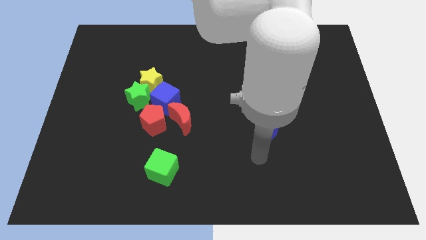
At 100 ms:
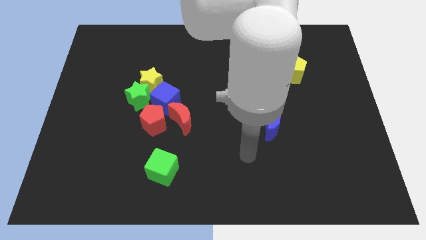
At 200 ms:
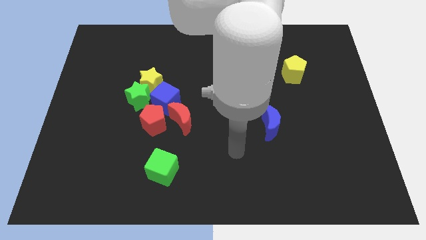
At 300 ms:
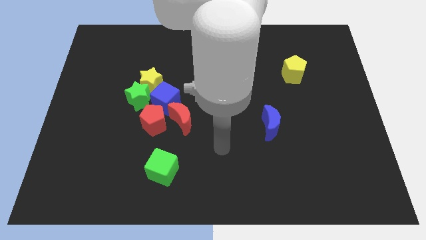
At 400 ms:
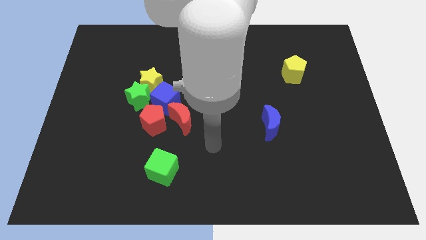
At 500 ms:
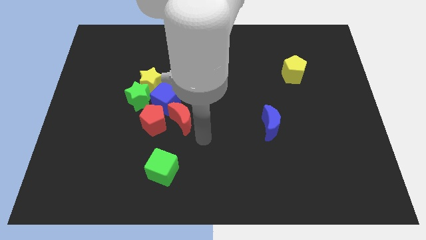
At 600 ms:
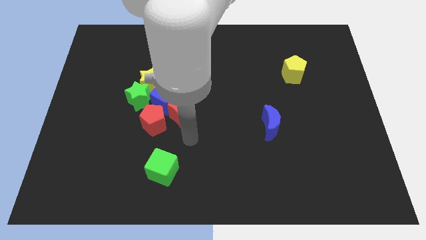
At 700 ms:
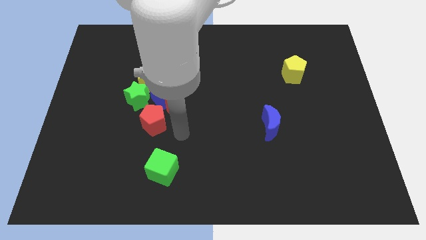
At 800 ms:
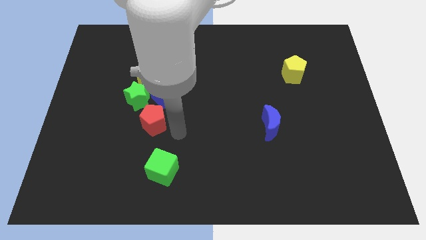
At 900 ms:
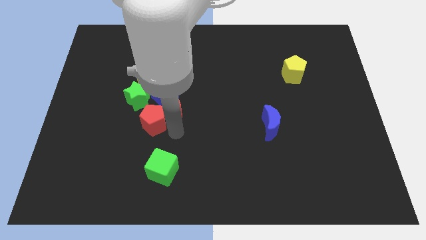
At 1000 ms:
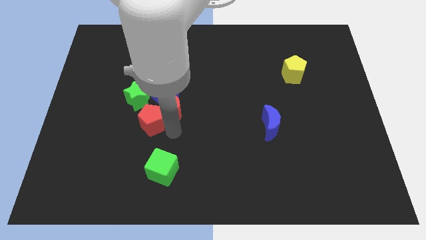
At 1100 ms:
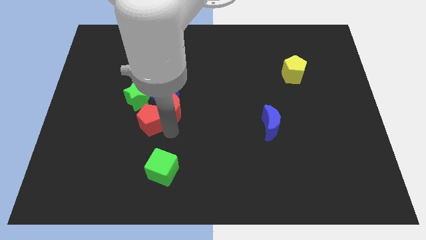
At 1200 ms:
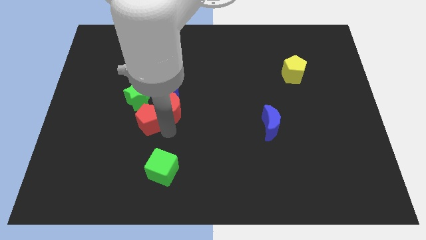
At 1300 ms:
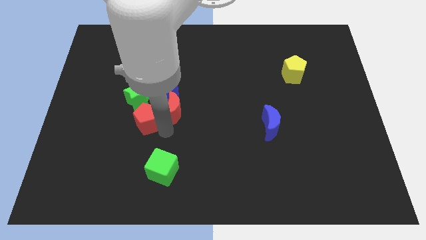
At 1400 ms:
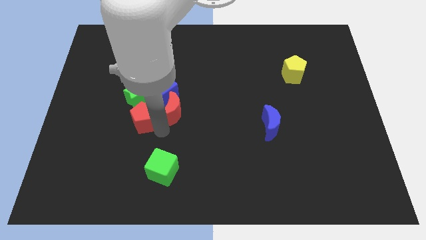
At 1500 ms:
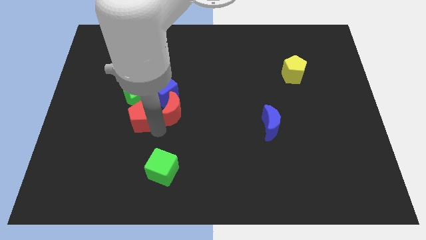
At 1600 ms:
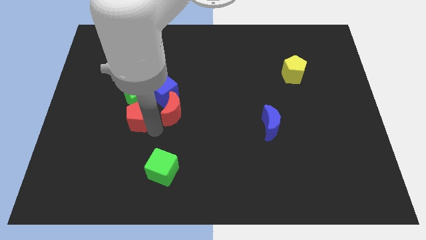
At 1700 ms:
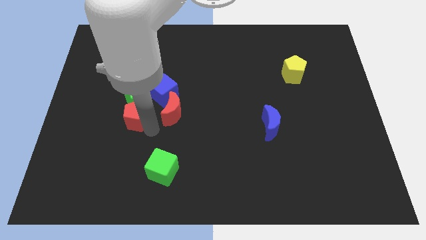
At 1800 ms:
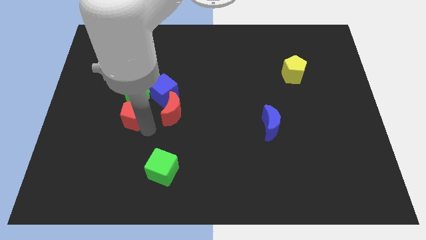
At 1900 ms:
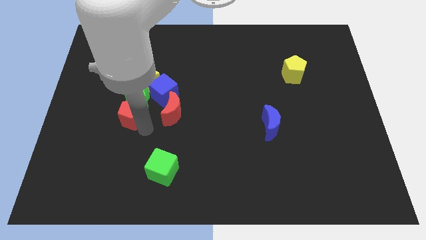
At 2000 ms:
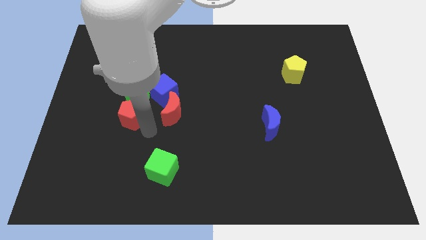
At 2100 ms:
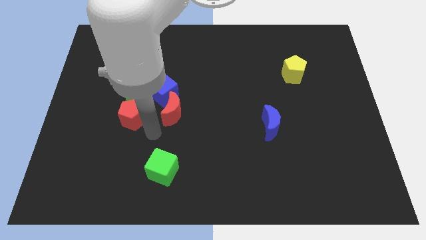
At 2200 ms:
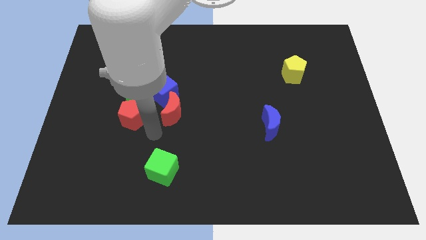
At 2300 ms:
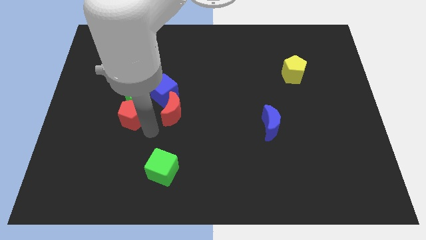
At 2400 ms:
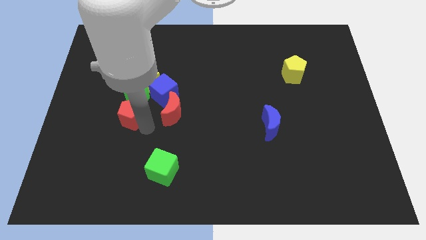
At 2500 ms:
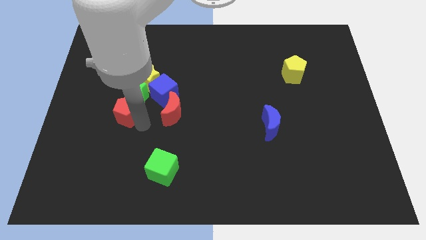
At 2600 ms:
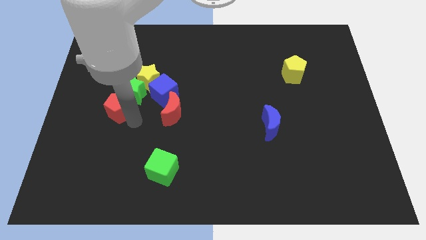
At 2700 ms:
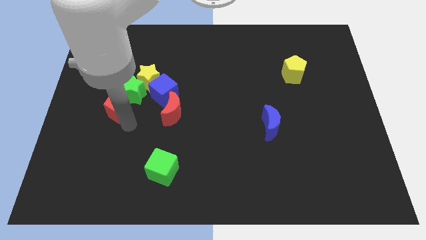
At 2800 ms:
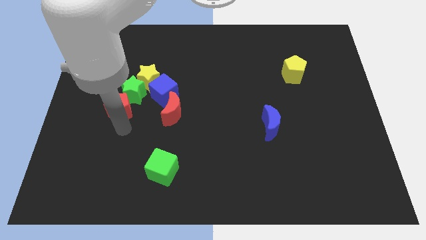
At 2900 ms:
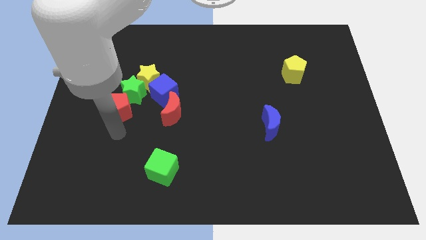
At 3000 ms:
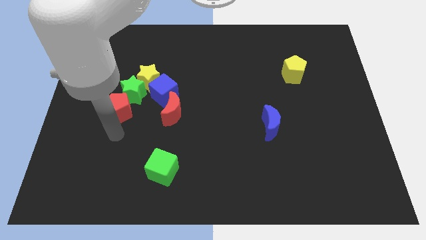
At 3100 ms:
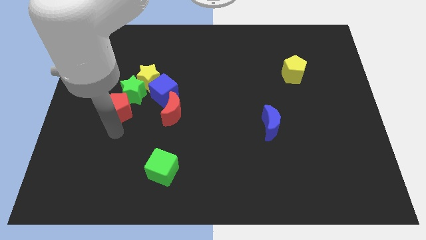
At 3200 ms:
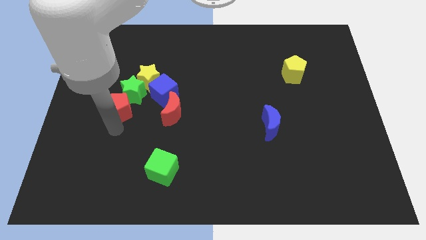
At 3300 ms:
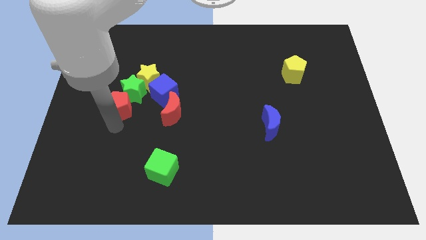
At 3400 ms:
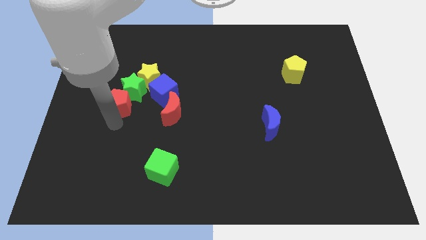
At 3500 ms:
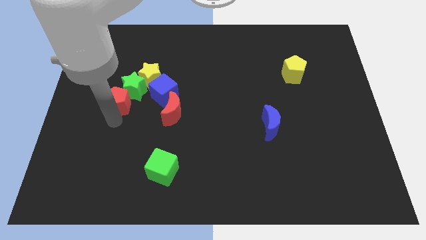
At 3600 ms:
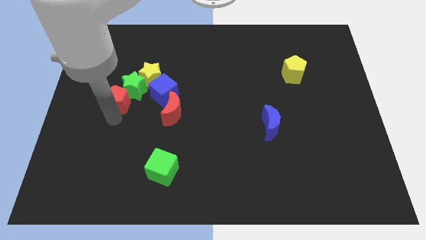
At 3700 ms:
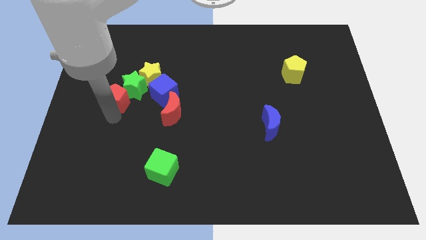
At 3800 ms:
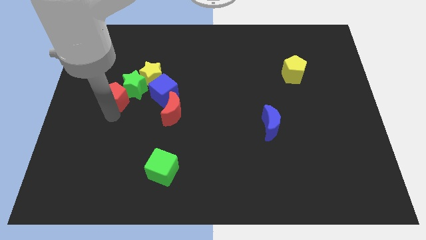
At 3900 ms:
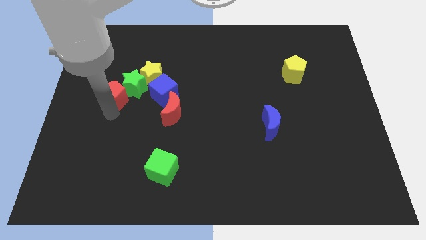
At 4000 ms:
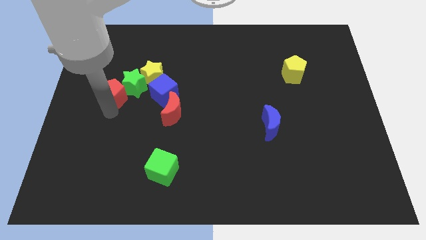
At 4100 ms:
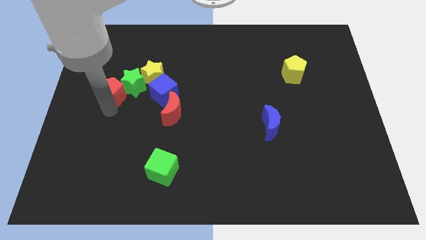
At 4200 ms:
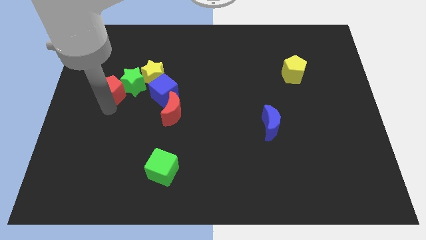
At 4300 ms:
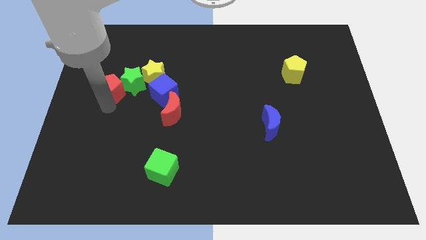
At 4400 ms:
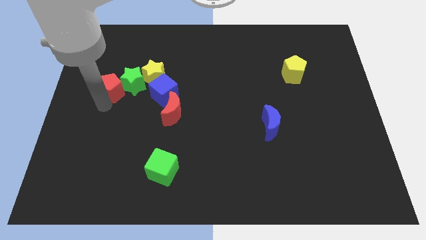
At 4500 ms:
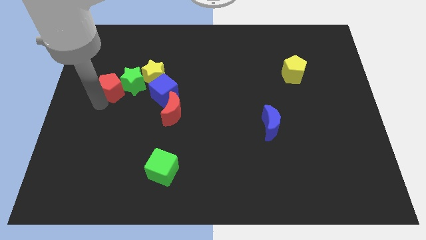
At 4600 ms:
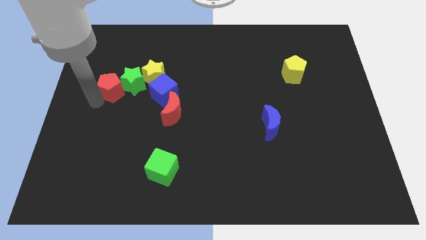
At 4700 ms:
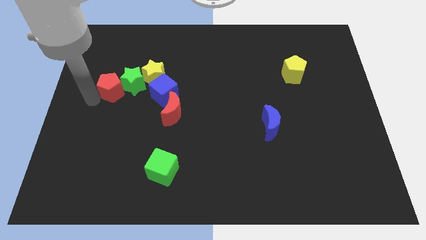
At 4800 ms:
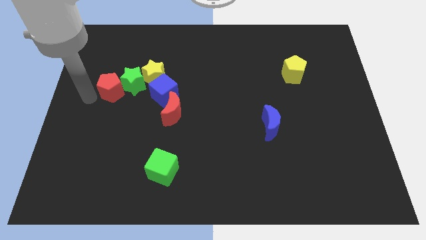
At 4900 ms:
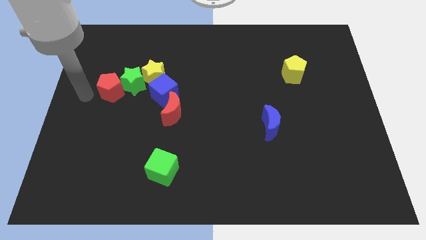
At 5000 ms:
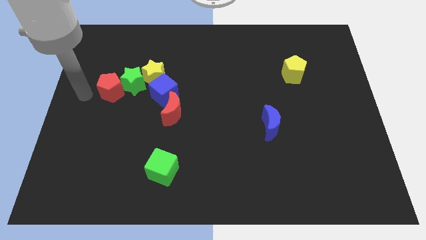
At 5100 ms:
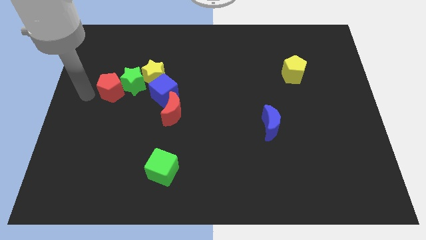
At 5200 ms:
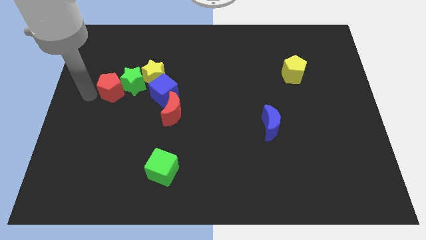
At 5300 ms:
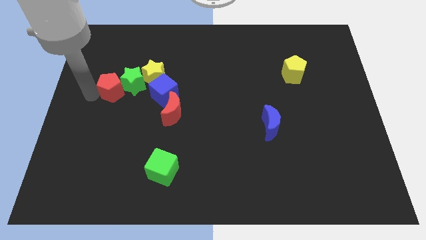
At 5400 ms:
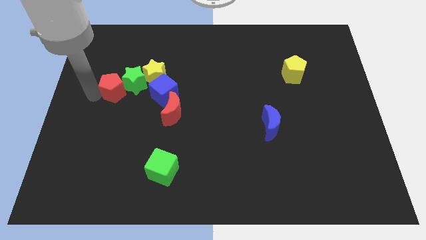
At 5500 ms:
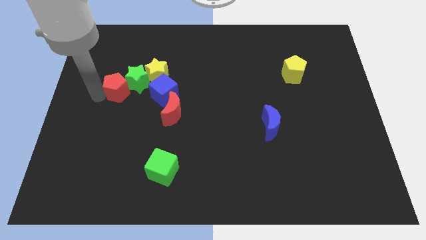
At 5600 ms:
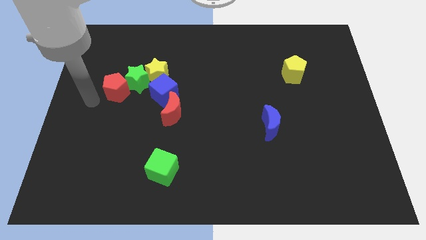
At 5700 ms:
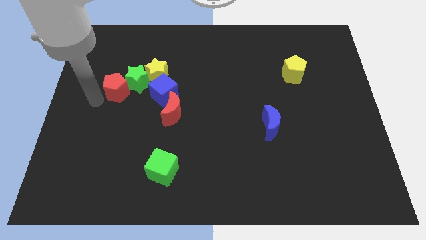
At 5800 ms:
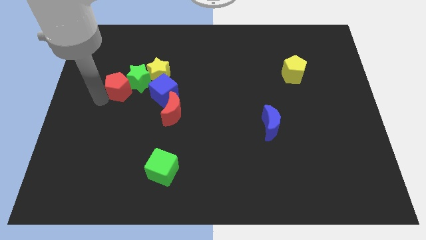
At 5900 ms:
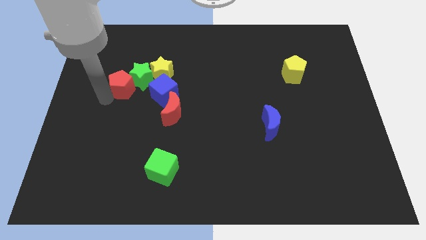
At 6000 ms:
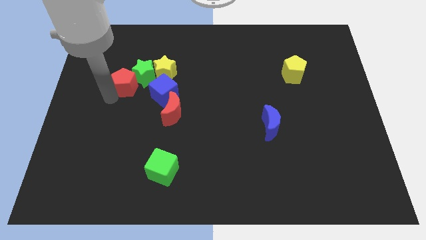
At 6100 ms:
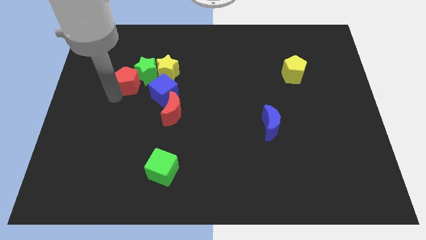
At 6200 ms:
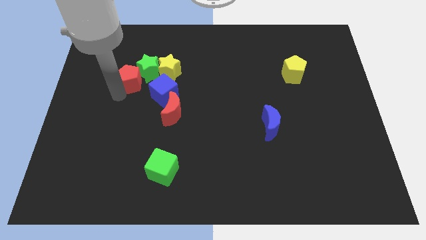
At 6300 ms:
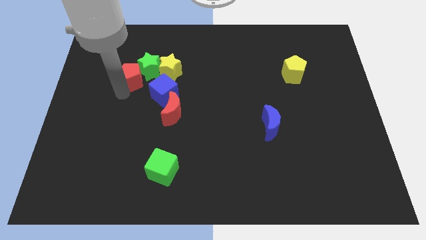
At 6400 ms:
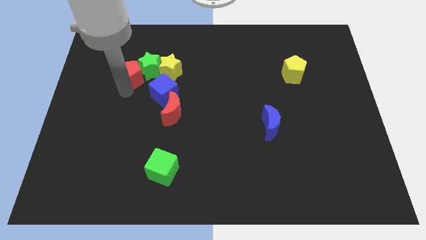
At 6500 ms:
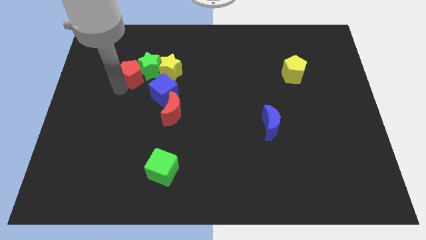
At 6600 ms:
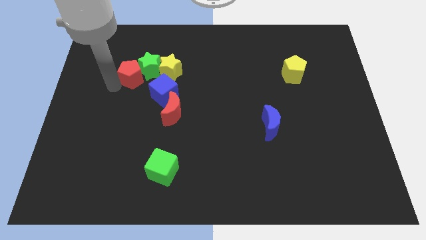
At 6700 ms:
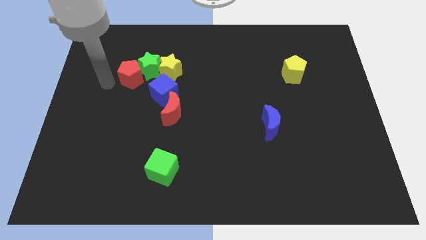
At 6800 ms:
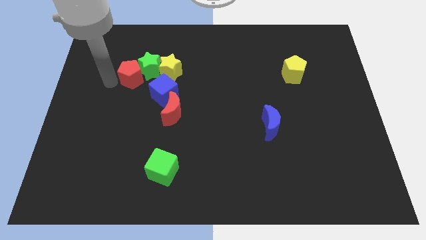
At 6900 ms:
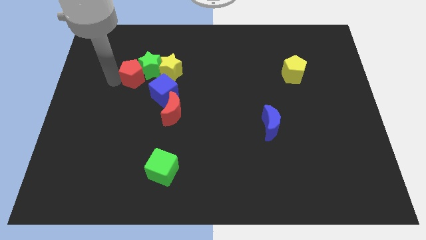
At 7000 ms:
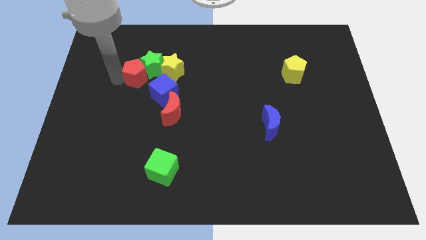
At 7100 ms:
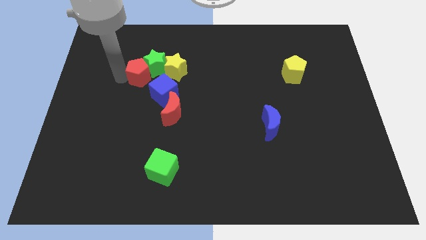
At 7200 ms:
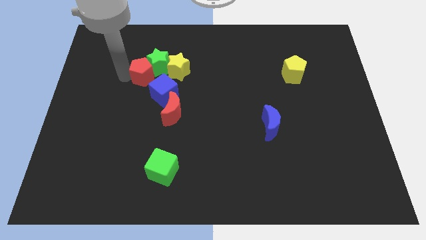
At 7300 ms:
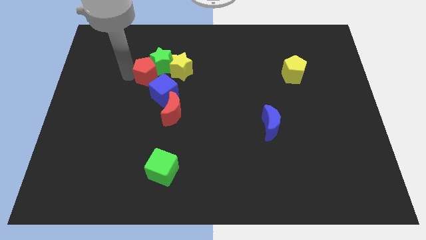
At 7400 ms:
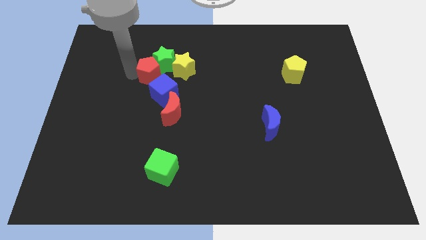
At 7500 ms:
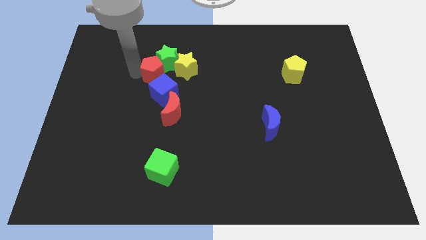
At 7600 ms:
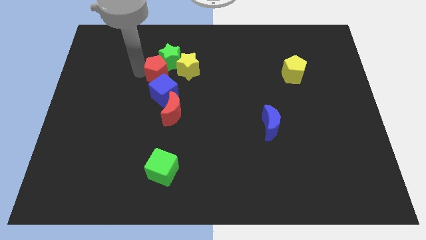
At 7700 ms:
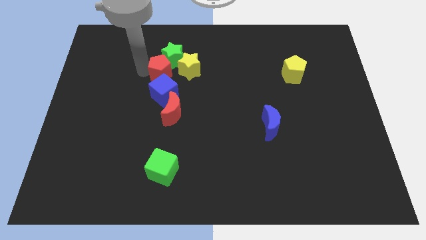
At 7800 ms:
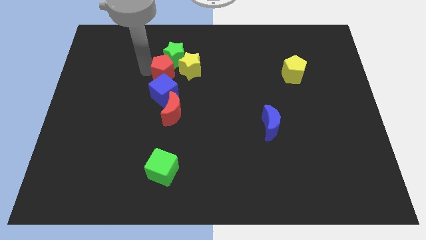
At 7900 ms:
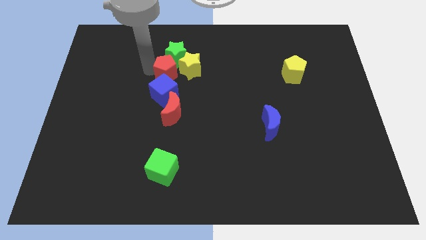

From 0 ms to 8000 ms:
put the red pentagon towards the yellow star
